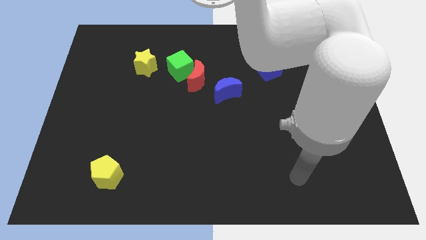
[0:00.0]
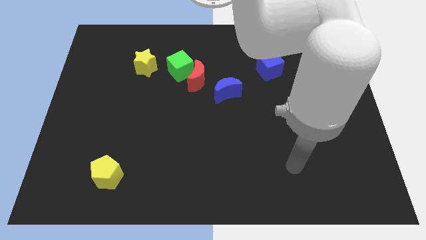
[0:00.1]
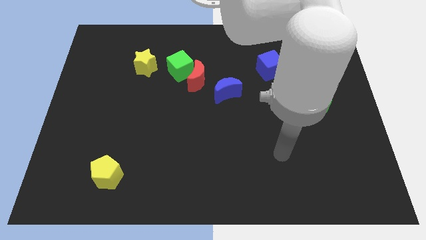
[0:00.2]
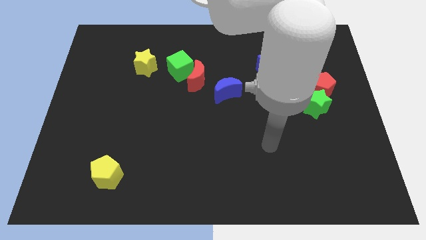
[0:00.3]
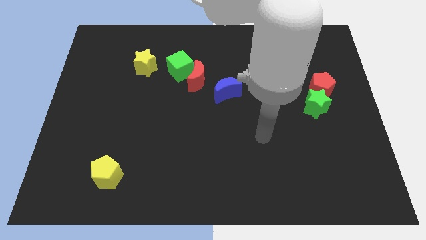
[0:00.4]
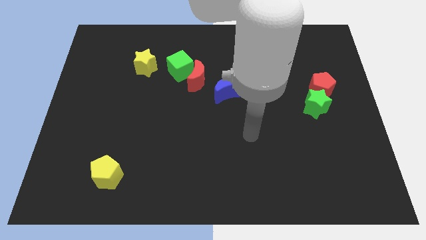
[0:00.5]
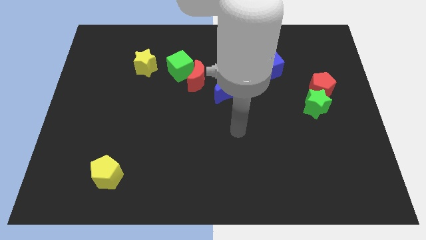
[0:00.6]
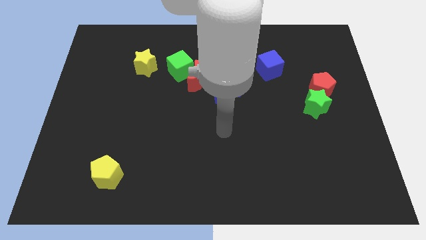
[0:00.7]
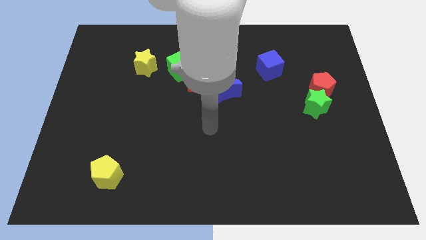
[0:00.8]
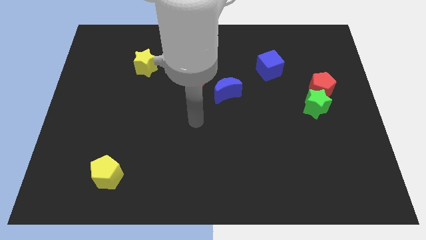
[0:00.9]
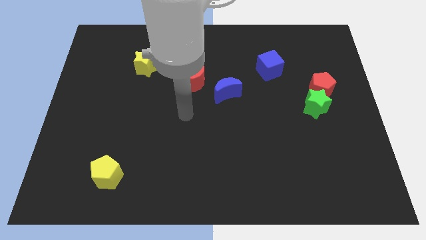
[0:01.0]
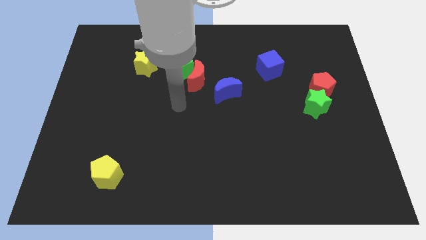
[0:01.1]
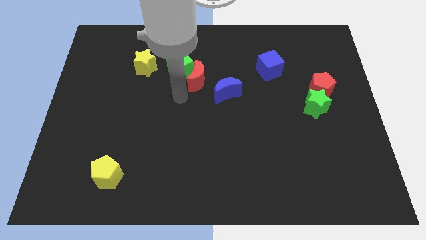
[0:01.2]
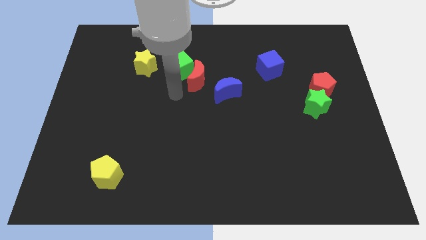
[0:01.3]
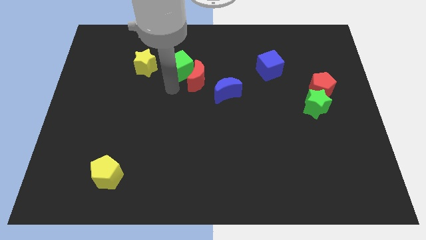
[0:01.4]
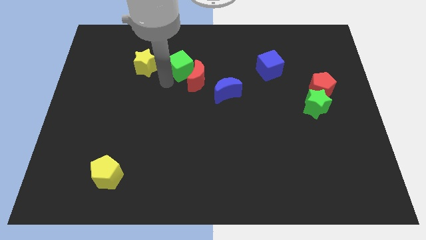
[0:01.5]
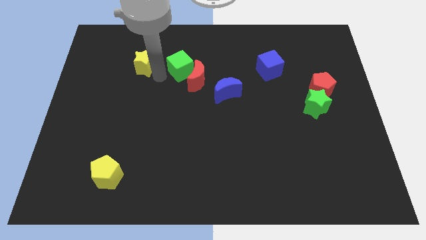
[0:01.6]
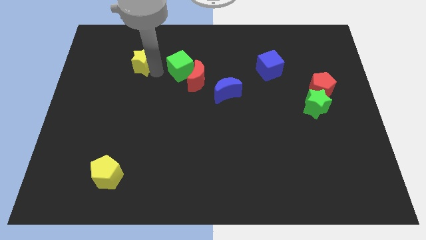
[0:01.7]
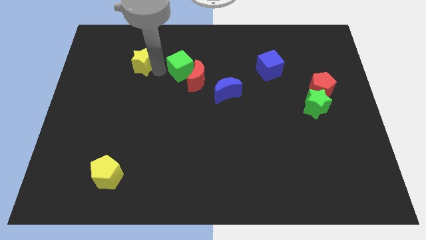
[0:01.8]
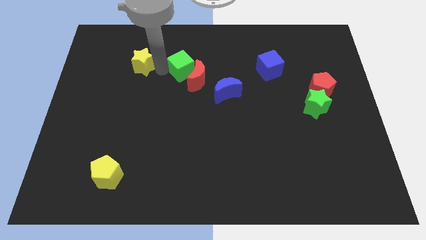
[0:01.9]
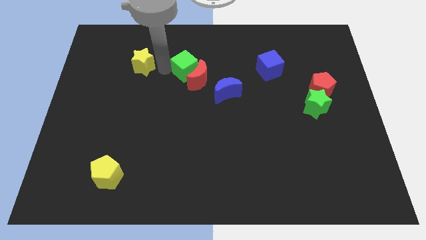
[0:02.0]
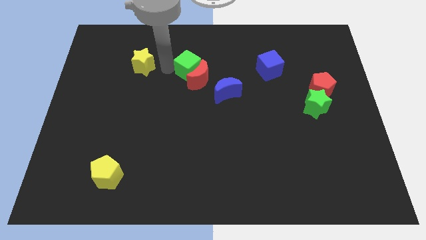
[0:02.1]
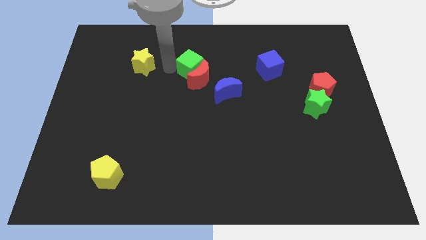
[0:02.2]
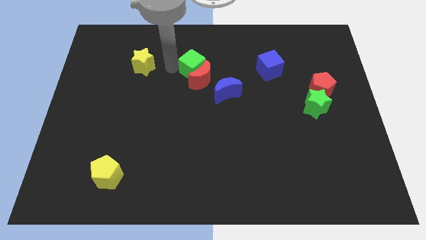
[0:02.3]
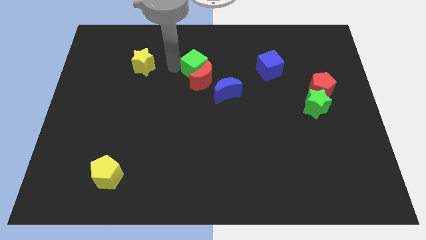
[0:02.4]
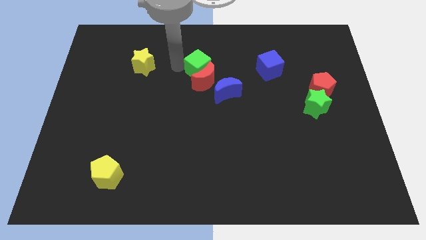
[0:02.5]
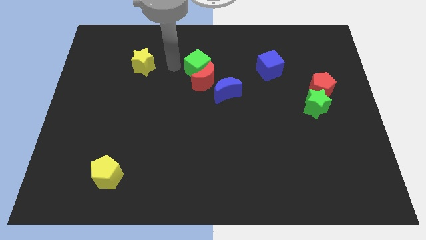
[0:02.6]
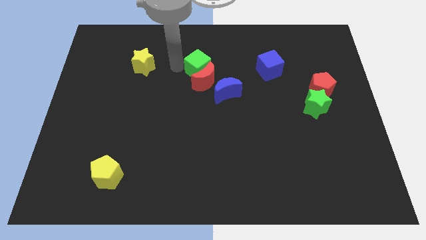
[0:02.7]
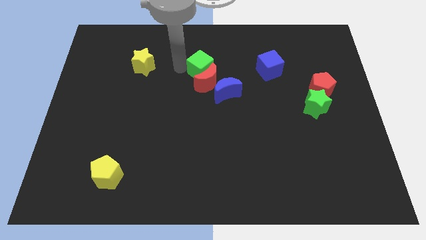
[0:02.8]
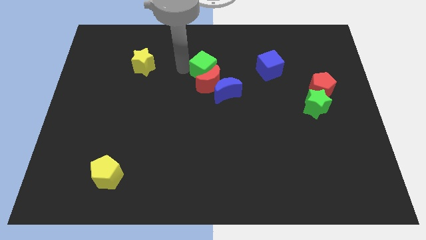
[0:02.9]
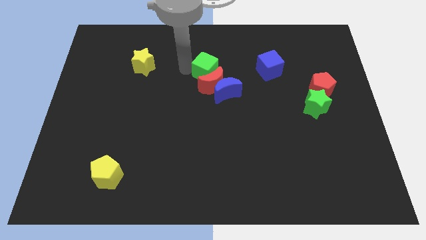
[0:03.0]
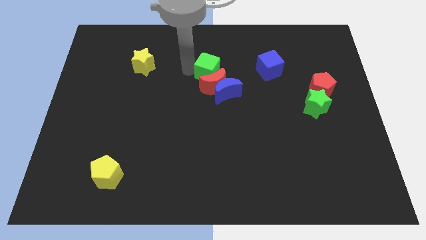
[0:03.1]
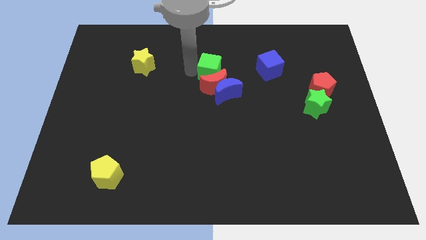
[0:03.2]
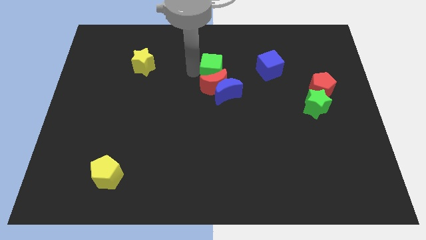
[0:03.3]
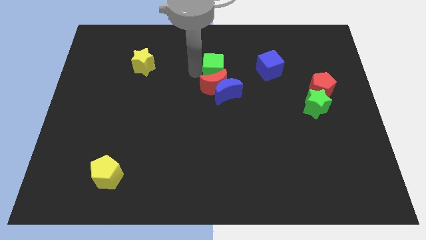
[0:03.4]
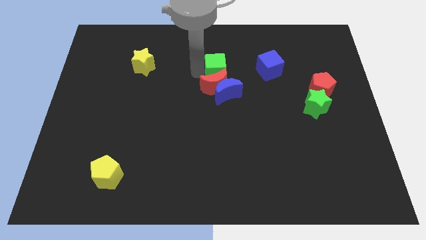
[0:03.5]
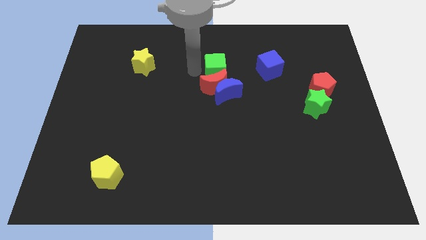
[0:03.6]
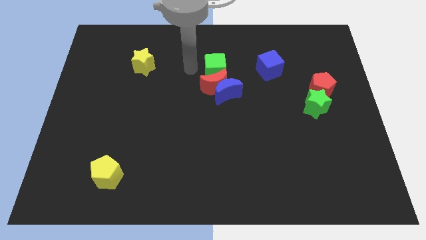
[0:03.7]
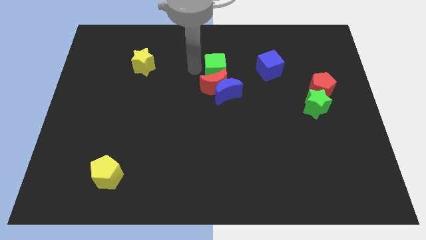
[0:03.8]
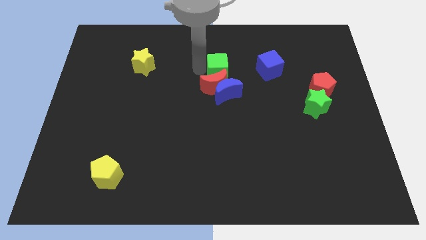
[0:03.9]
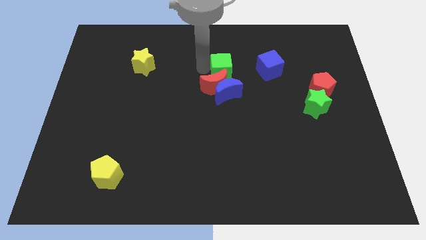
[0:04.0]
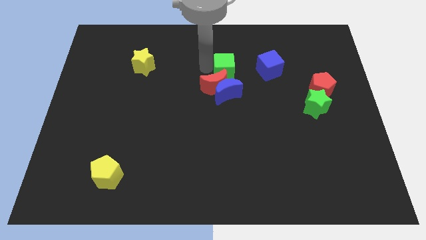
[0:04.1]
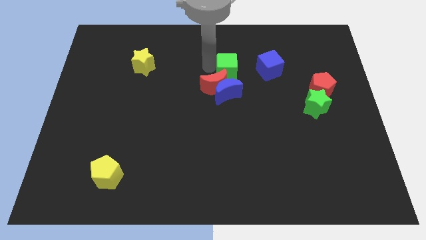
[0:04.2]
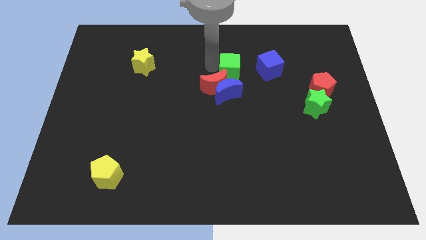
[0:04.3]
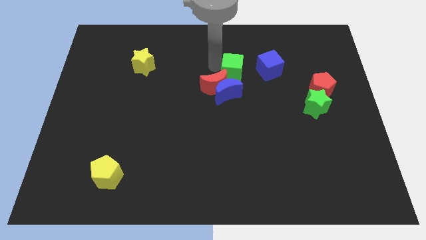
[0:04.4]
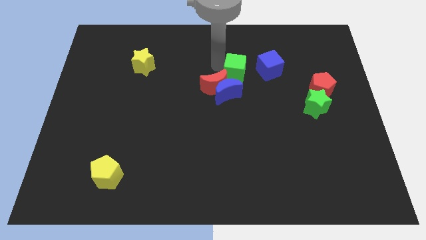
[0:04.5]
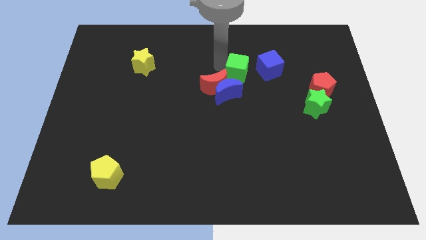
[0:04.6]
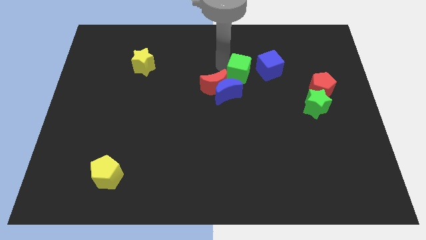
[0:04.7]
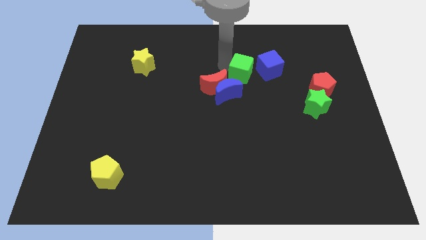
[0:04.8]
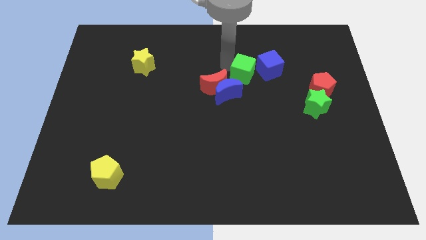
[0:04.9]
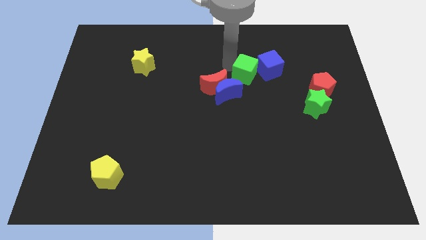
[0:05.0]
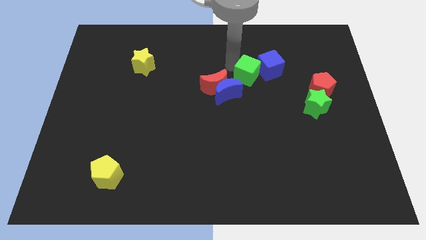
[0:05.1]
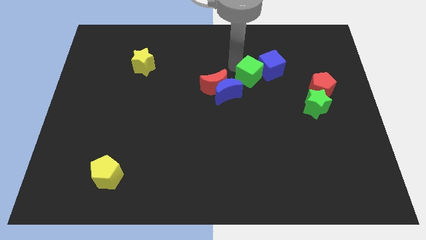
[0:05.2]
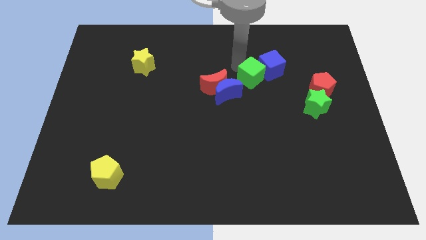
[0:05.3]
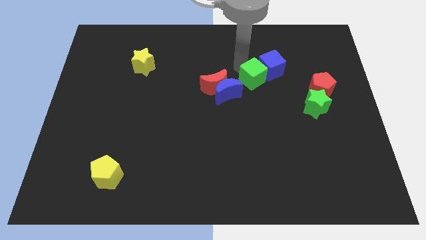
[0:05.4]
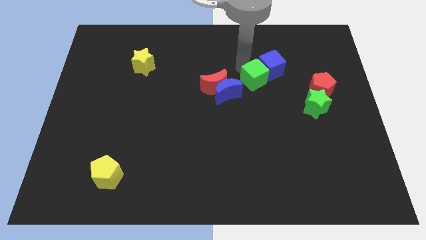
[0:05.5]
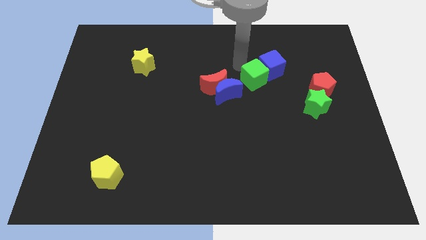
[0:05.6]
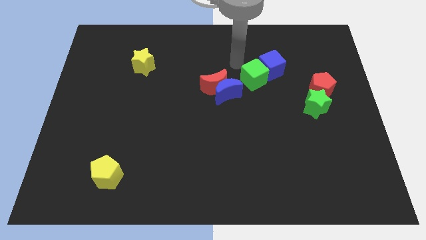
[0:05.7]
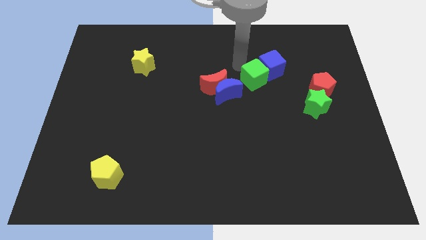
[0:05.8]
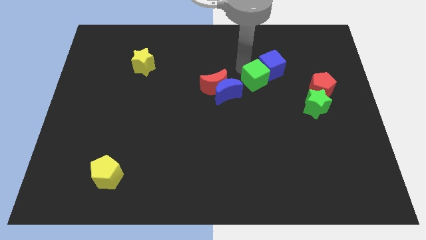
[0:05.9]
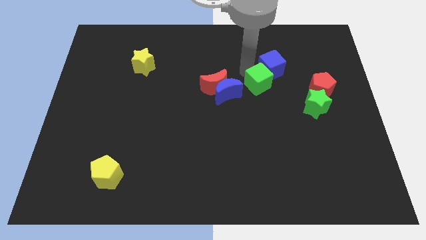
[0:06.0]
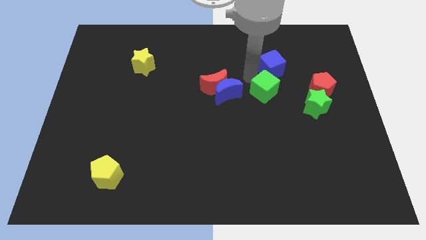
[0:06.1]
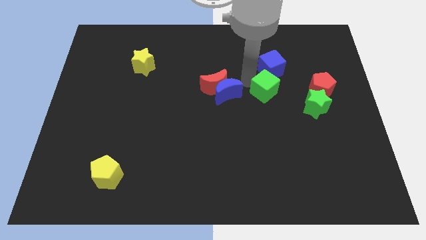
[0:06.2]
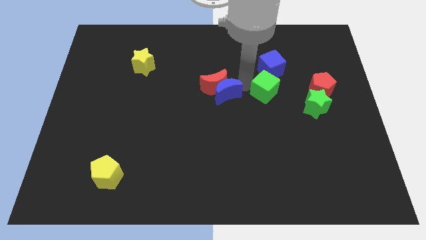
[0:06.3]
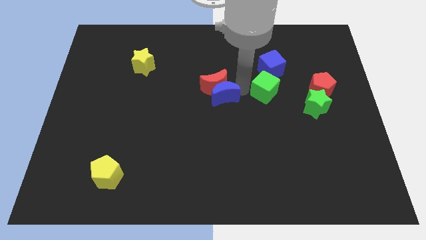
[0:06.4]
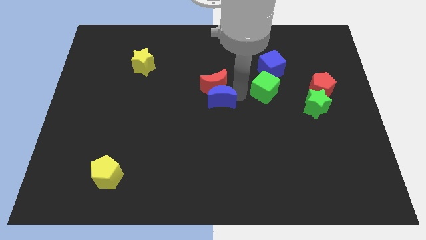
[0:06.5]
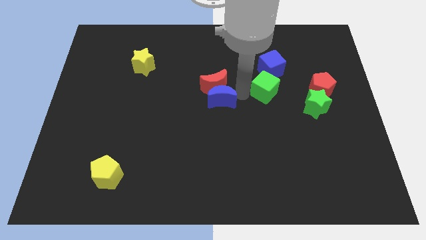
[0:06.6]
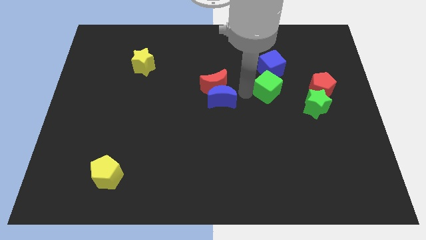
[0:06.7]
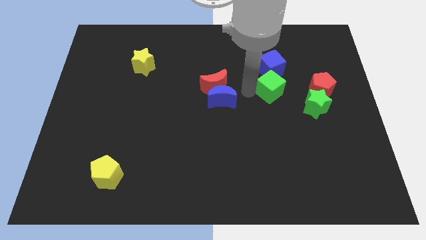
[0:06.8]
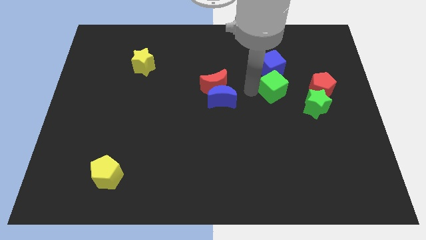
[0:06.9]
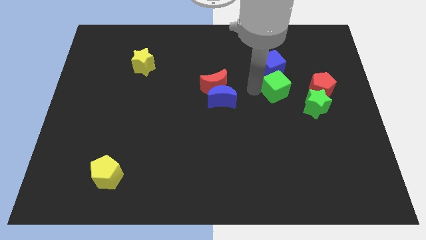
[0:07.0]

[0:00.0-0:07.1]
slide the green cube diagonally down and to the right of the blue cube
